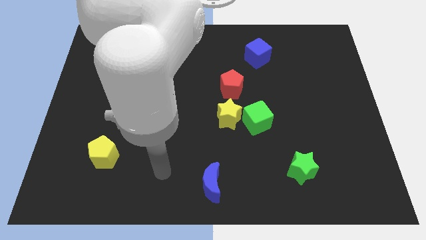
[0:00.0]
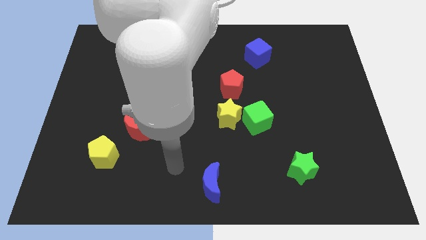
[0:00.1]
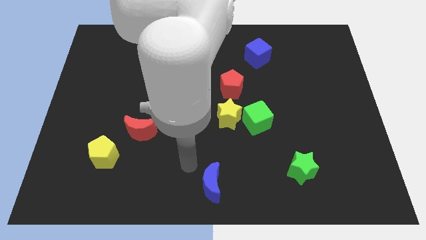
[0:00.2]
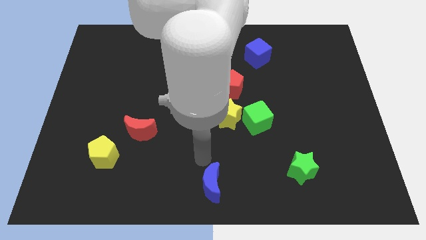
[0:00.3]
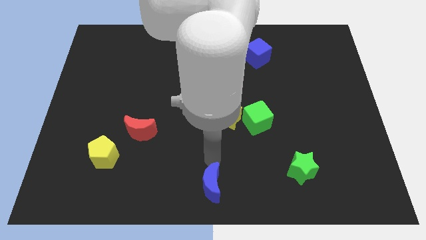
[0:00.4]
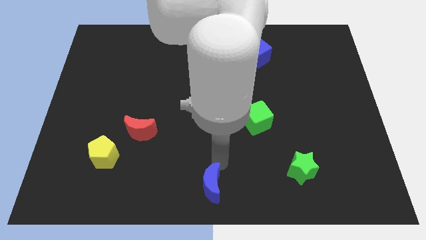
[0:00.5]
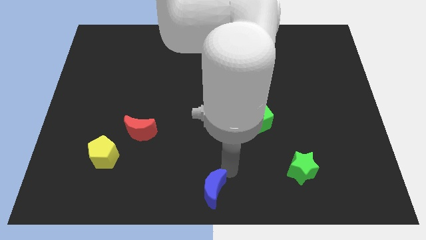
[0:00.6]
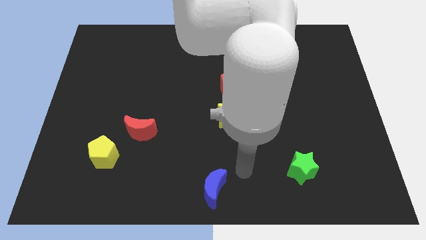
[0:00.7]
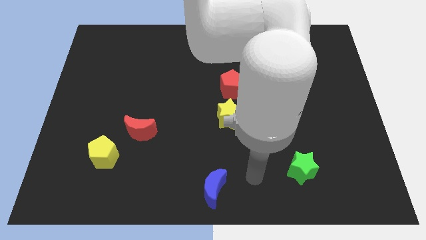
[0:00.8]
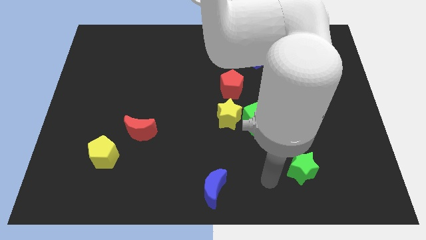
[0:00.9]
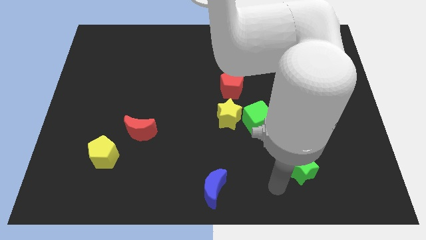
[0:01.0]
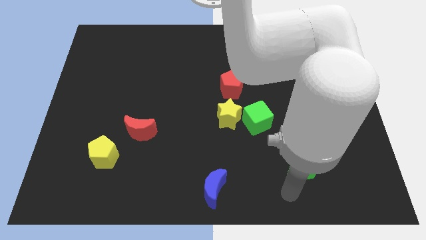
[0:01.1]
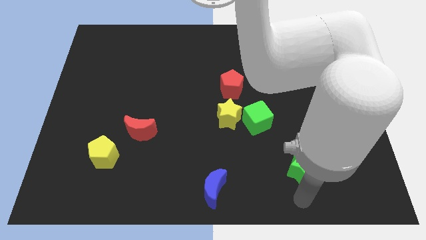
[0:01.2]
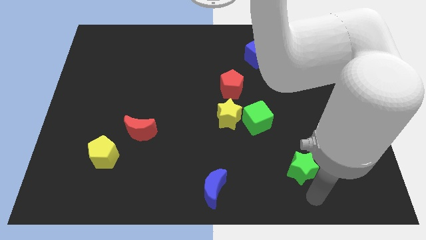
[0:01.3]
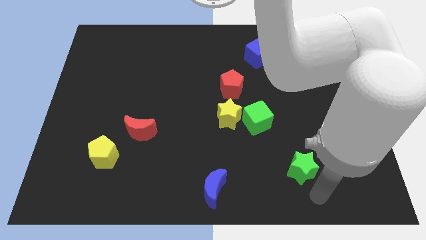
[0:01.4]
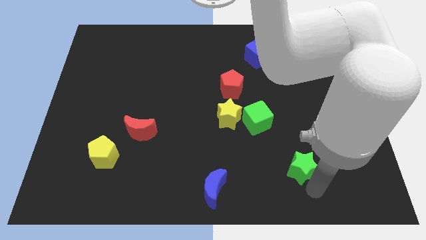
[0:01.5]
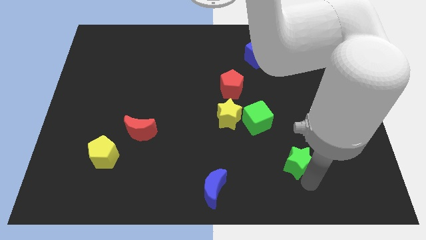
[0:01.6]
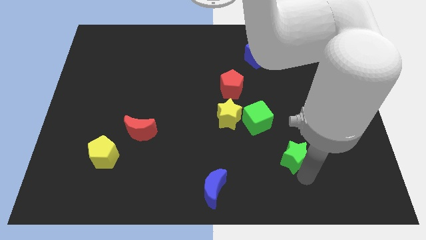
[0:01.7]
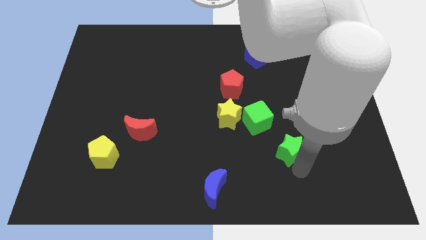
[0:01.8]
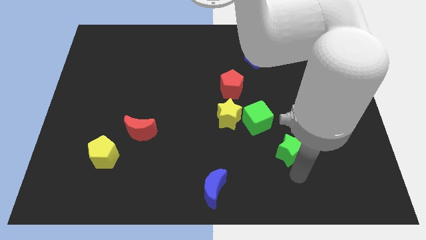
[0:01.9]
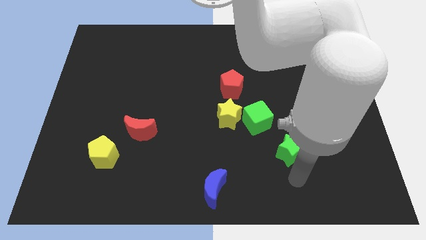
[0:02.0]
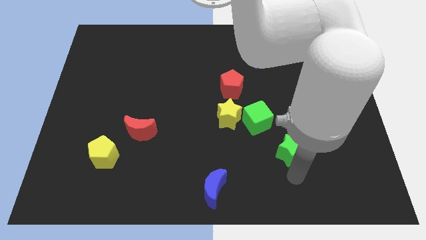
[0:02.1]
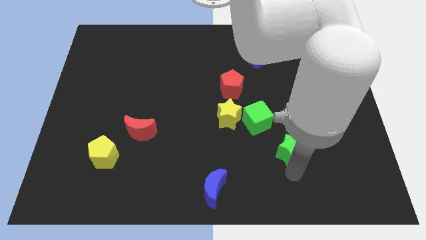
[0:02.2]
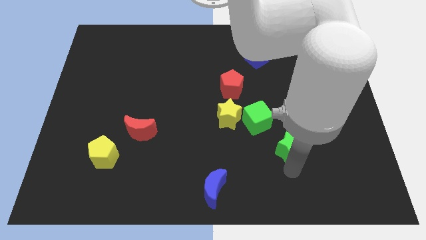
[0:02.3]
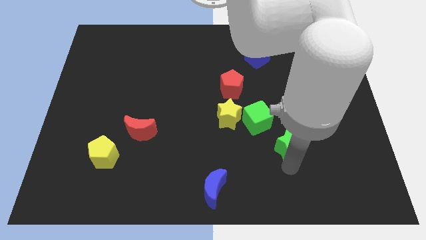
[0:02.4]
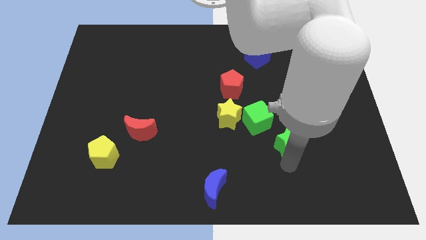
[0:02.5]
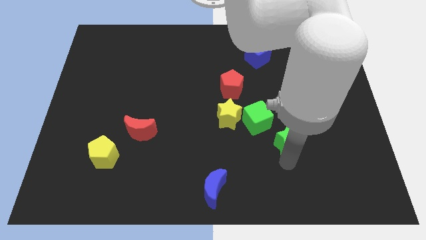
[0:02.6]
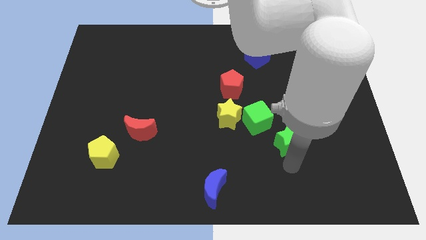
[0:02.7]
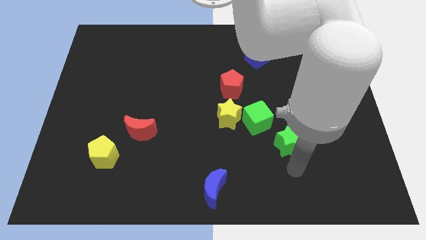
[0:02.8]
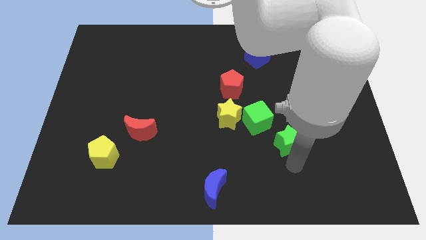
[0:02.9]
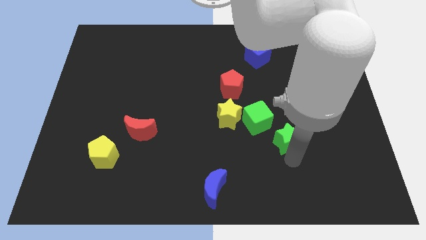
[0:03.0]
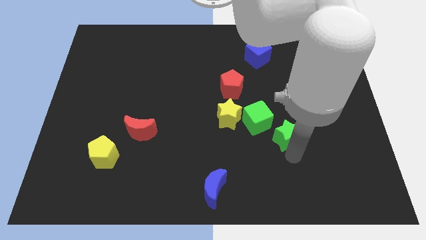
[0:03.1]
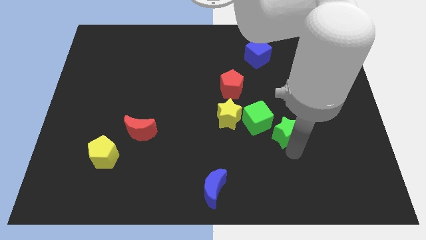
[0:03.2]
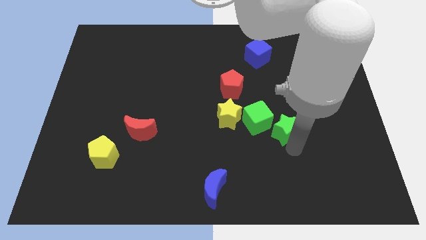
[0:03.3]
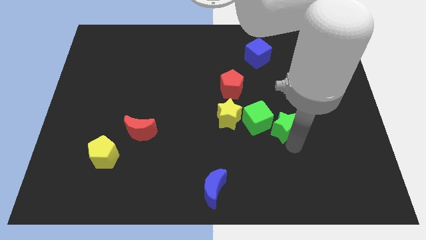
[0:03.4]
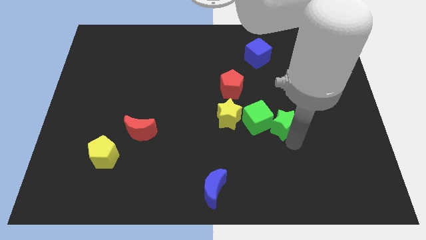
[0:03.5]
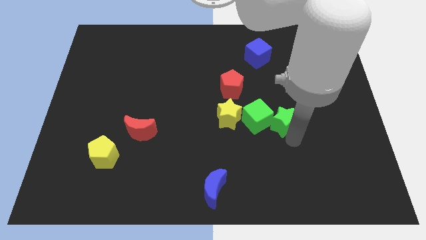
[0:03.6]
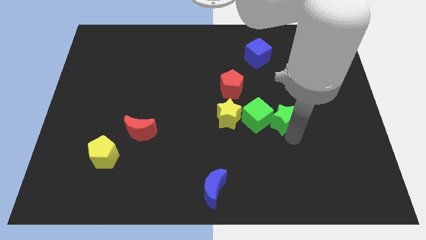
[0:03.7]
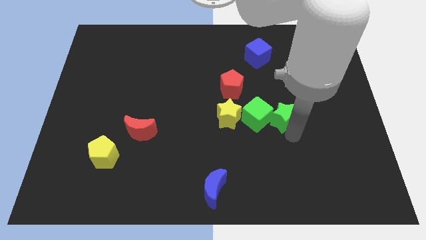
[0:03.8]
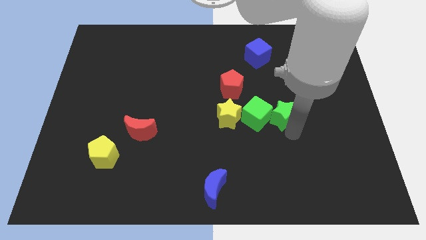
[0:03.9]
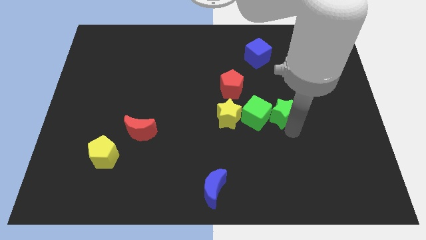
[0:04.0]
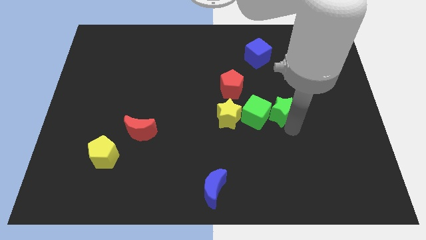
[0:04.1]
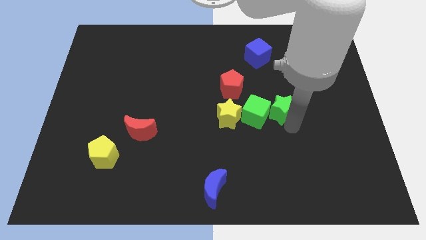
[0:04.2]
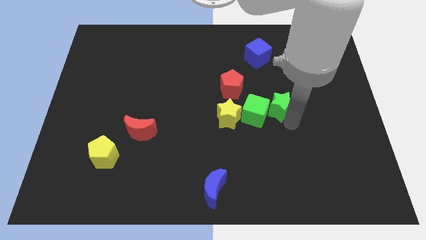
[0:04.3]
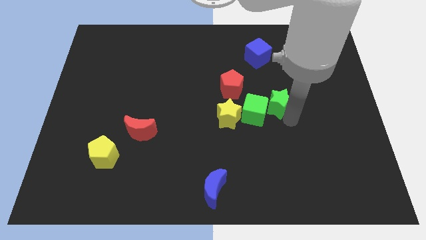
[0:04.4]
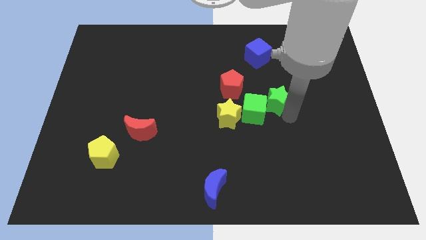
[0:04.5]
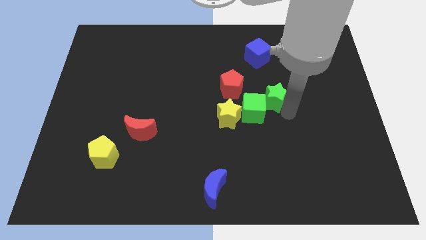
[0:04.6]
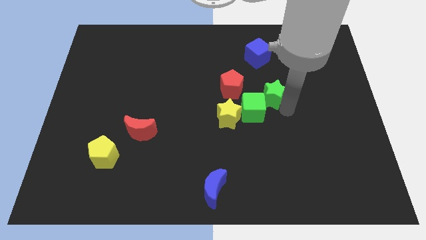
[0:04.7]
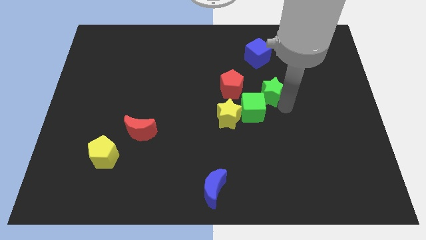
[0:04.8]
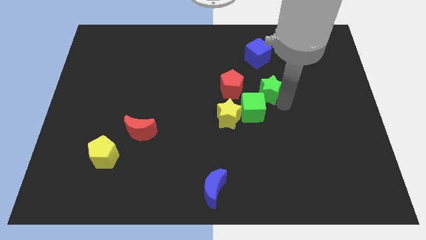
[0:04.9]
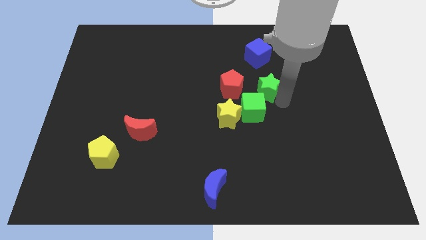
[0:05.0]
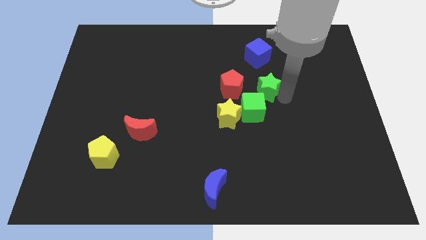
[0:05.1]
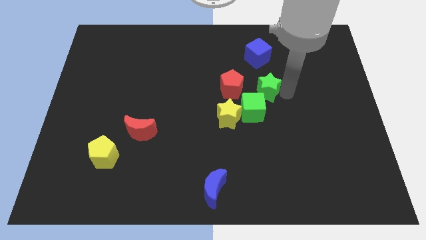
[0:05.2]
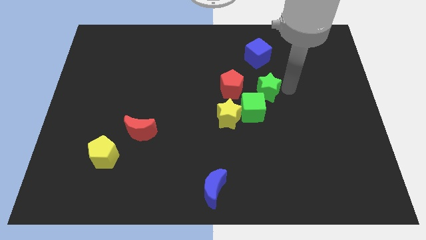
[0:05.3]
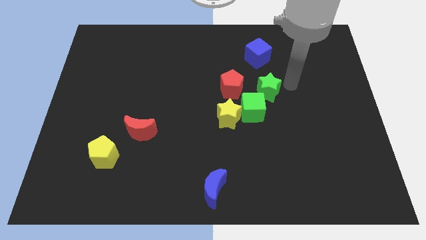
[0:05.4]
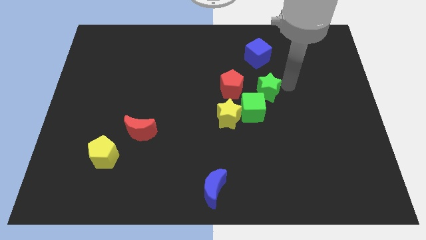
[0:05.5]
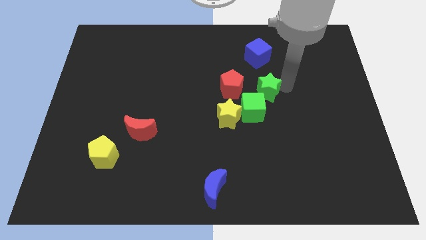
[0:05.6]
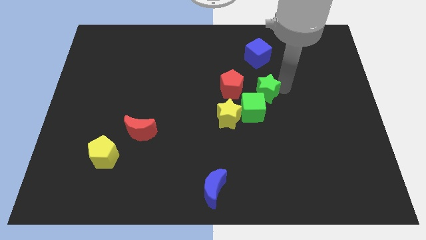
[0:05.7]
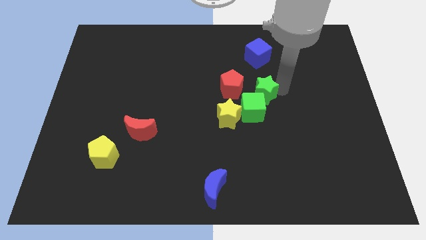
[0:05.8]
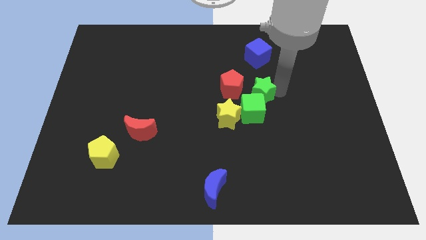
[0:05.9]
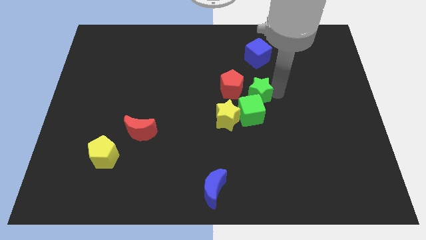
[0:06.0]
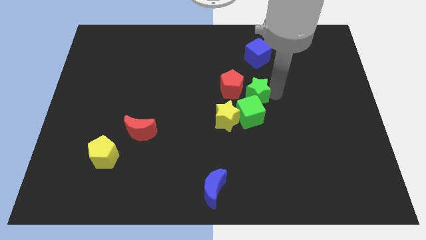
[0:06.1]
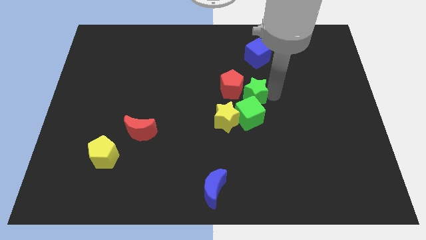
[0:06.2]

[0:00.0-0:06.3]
slide the green star to the red pentagon
